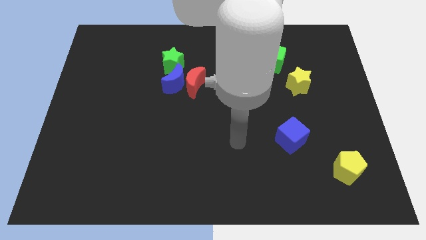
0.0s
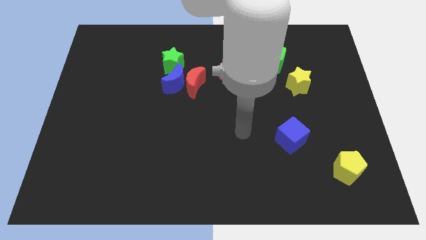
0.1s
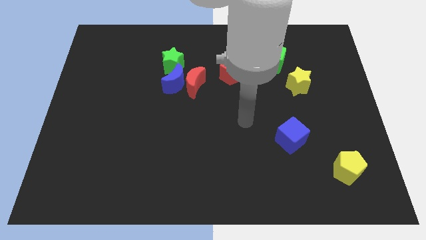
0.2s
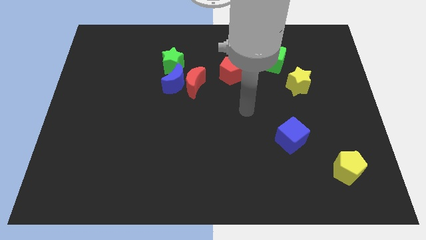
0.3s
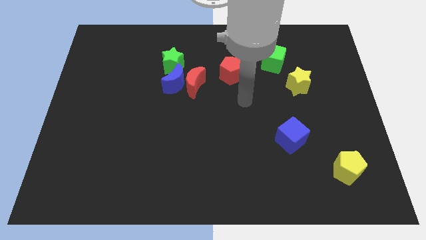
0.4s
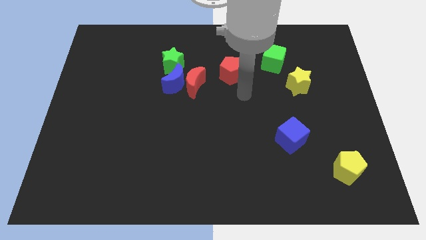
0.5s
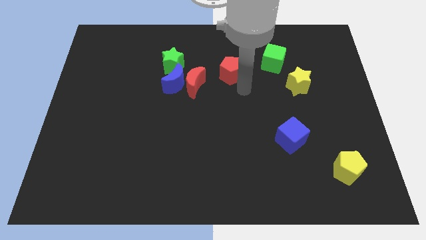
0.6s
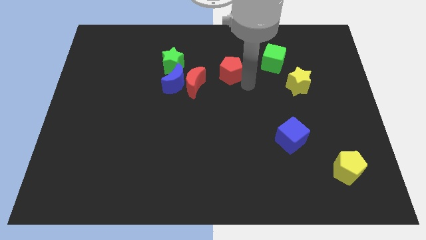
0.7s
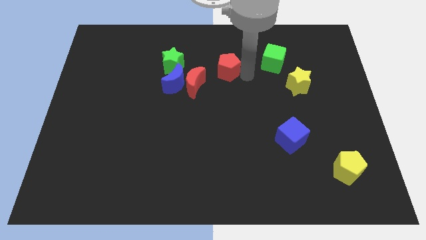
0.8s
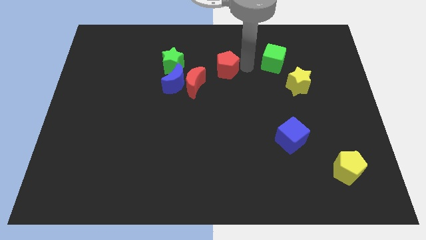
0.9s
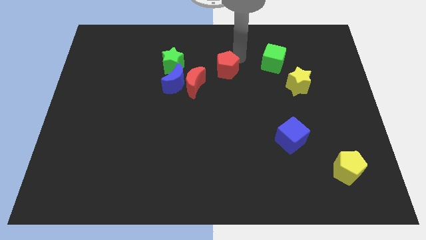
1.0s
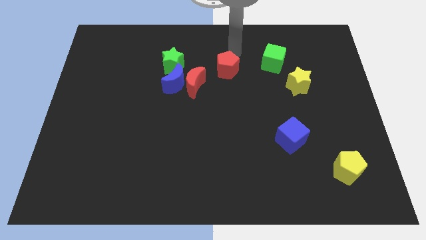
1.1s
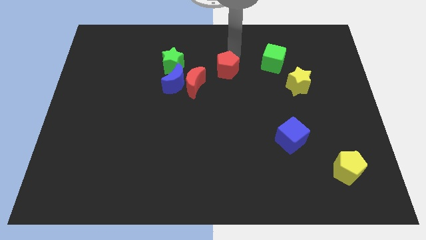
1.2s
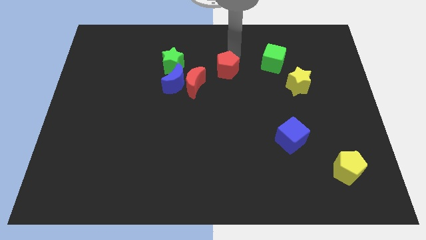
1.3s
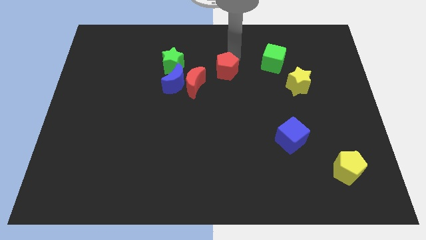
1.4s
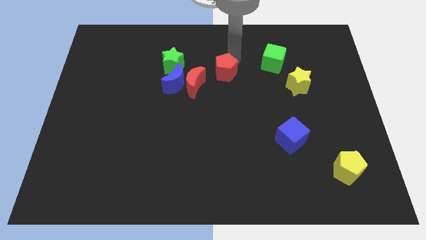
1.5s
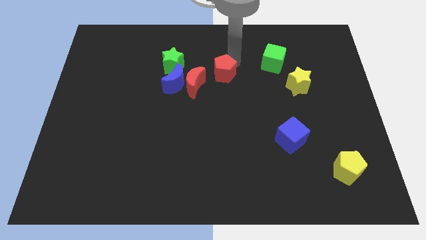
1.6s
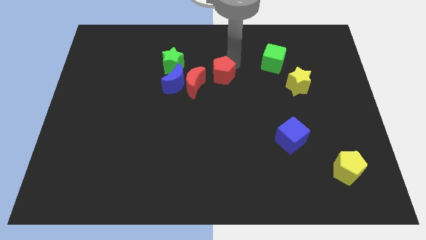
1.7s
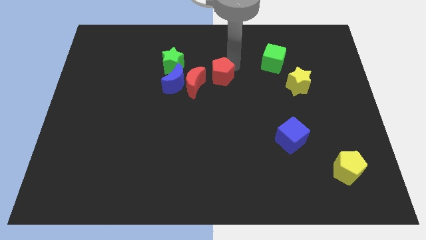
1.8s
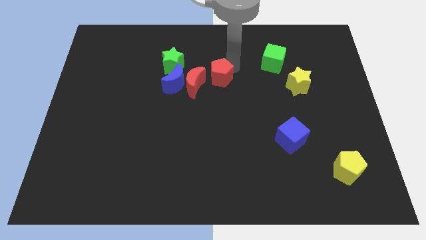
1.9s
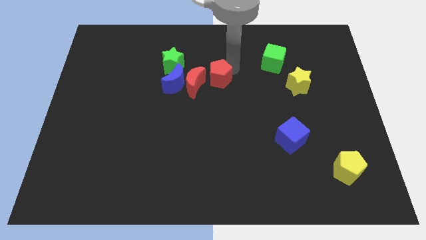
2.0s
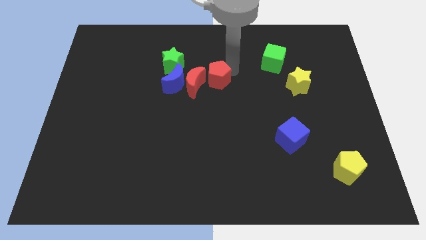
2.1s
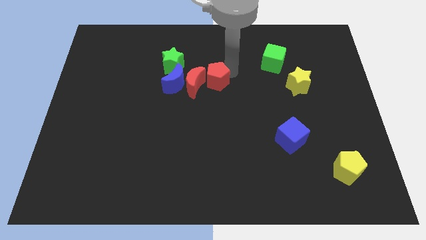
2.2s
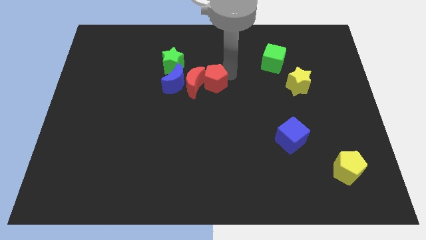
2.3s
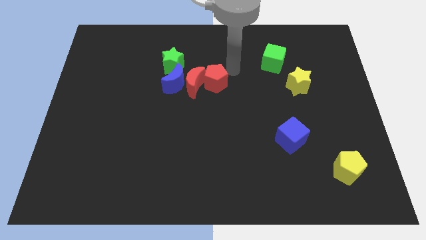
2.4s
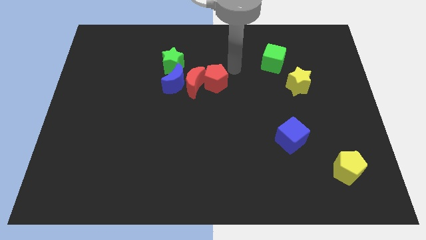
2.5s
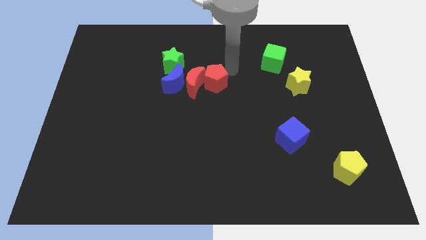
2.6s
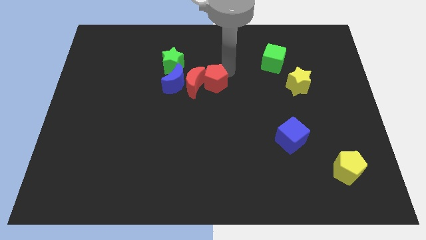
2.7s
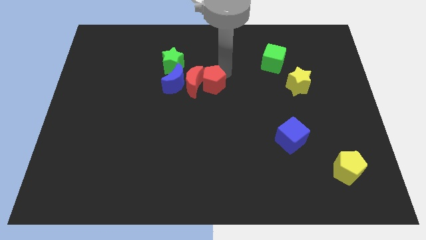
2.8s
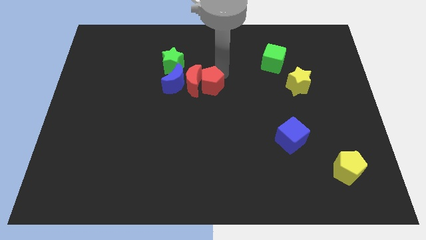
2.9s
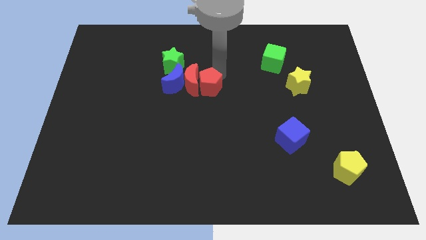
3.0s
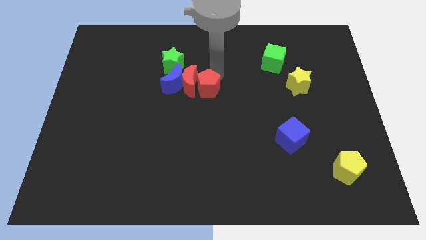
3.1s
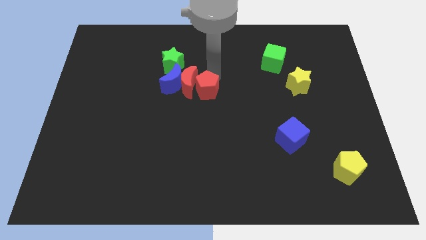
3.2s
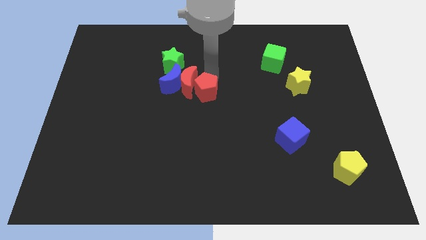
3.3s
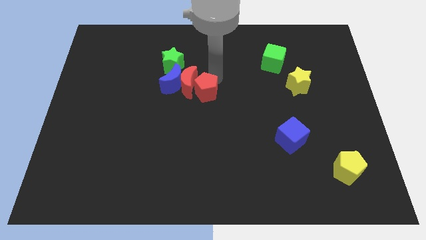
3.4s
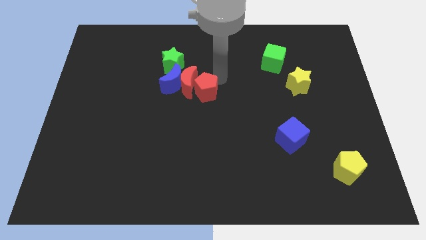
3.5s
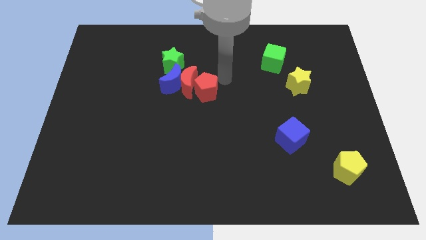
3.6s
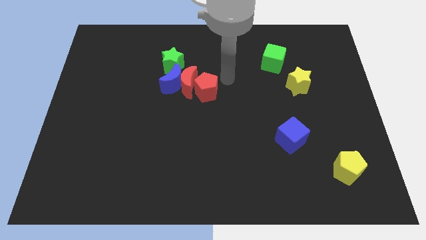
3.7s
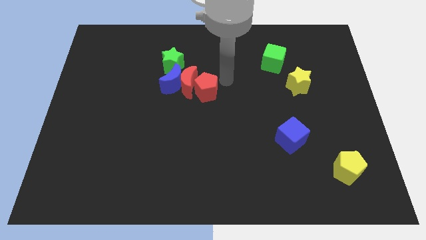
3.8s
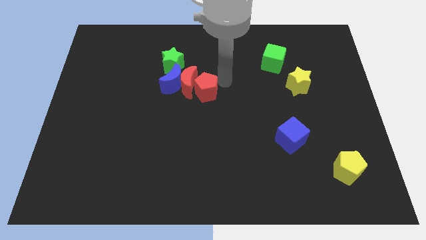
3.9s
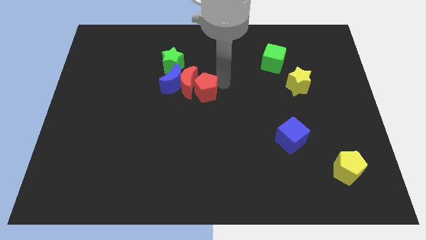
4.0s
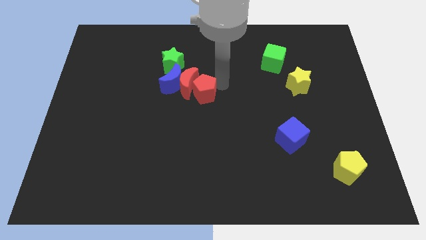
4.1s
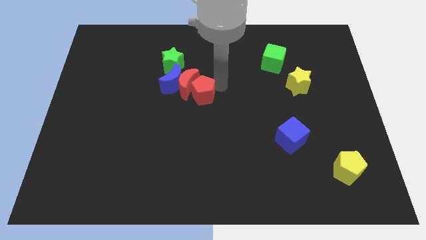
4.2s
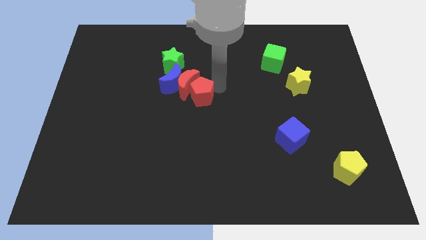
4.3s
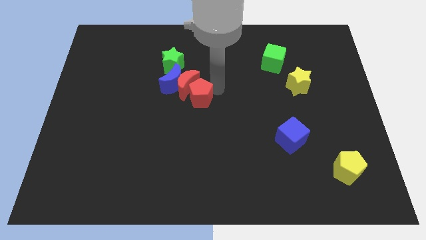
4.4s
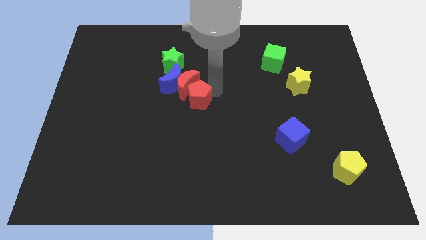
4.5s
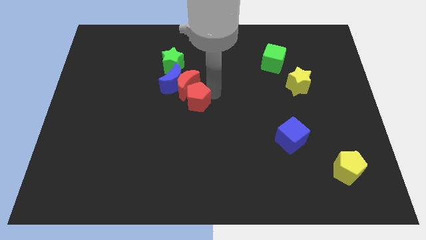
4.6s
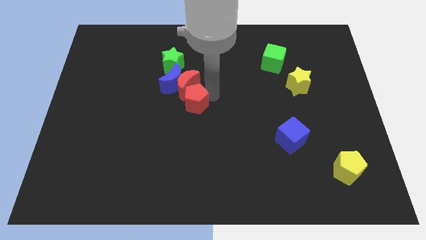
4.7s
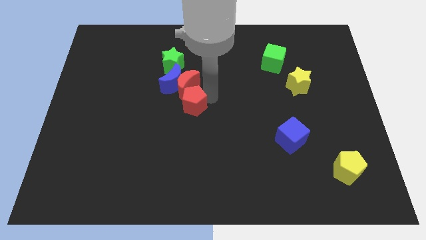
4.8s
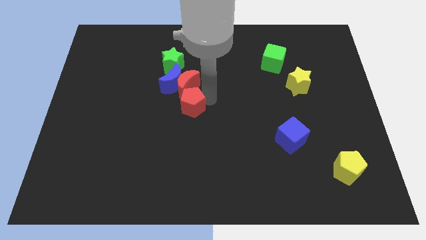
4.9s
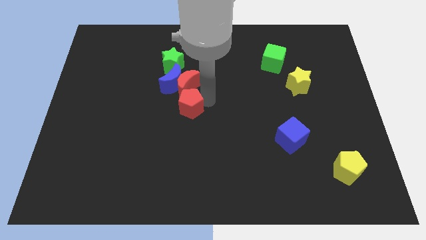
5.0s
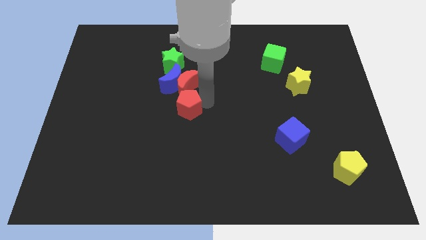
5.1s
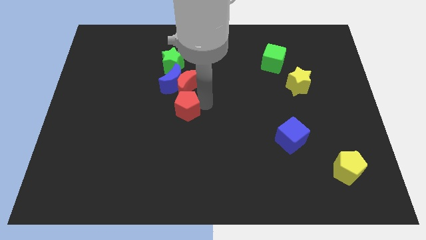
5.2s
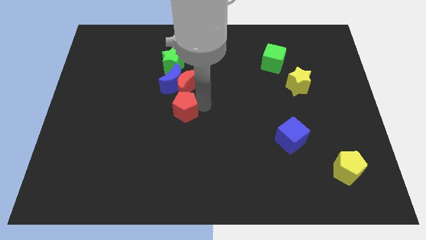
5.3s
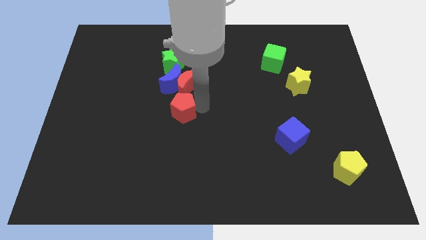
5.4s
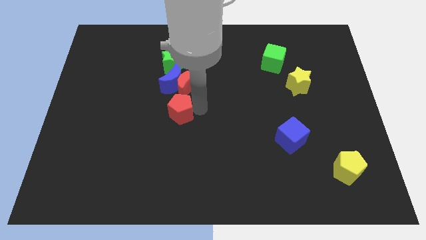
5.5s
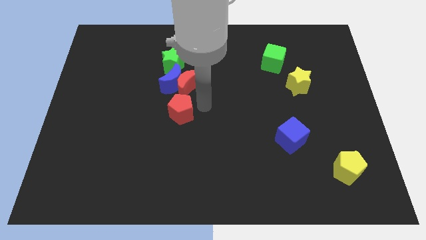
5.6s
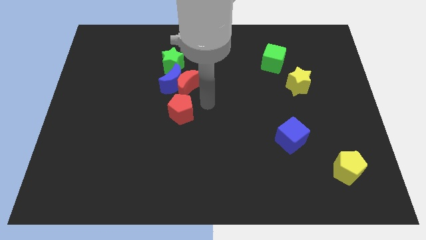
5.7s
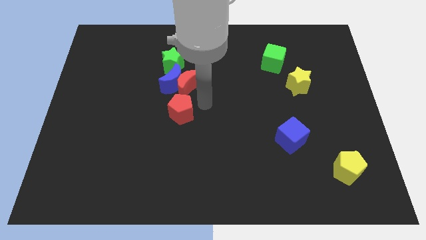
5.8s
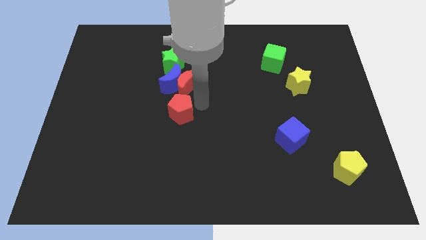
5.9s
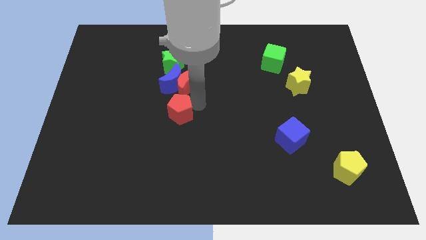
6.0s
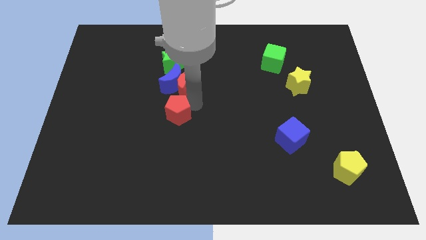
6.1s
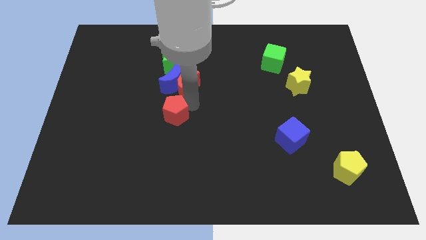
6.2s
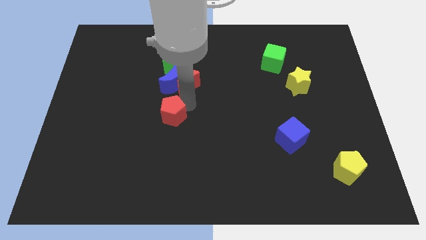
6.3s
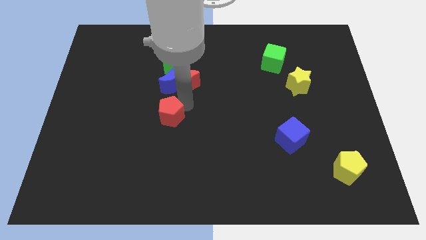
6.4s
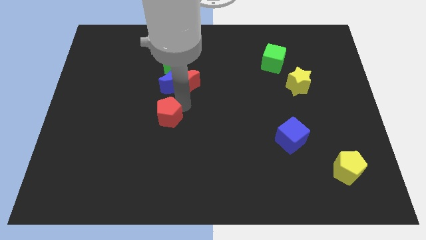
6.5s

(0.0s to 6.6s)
push the red pentagon diagonally downwards and left

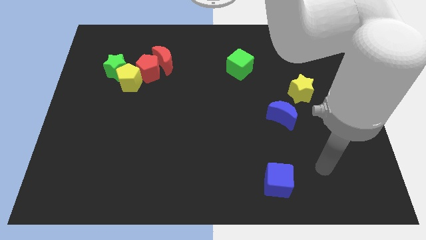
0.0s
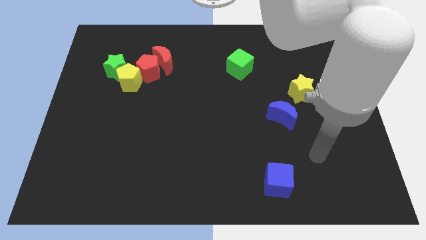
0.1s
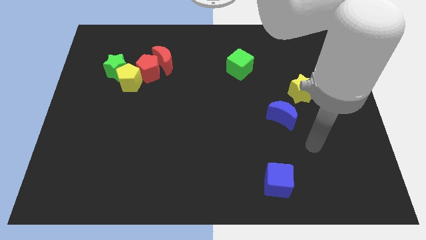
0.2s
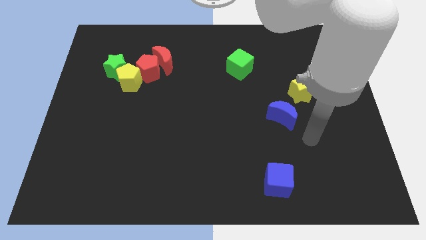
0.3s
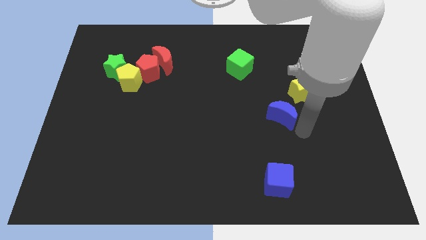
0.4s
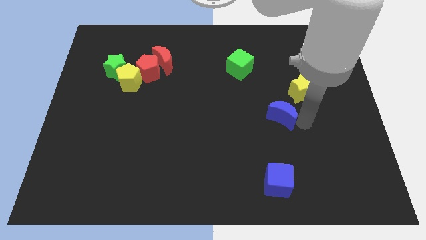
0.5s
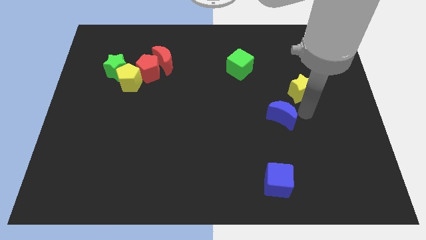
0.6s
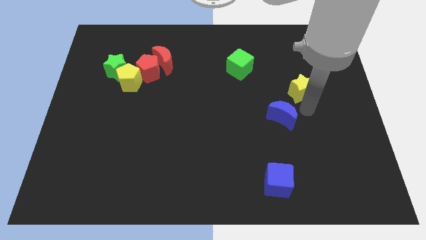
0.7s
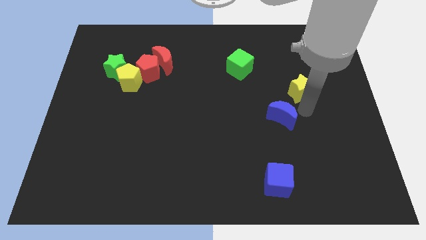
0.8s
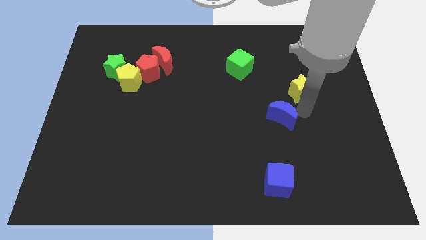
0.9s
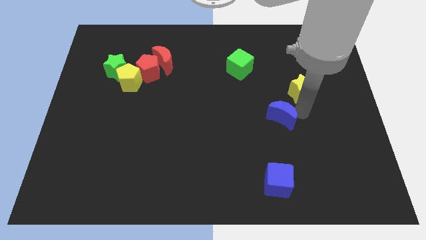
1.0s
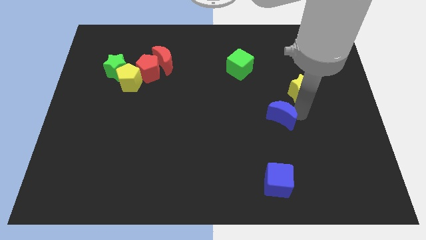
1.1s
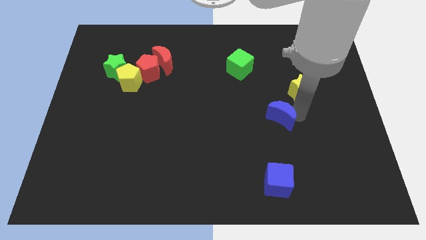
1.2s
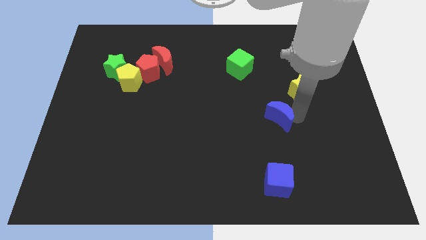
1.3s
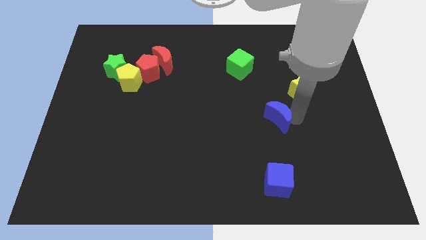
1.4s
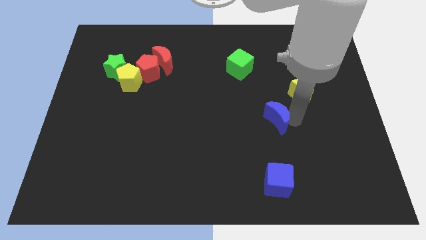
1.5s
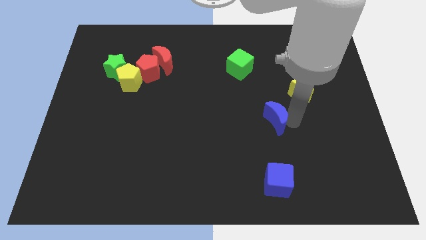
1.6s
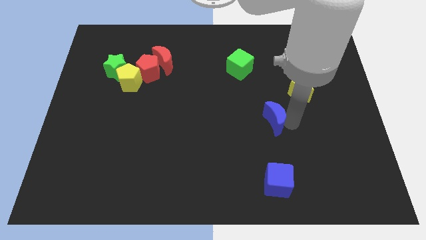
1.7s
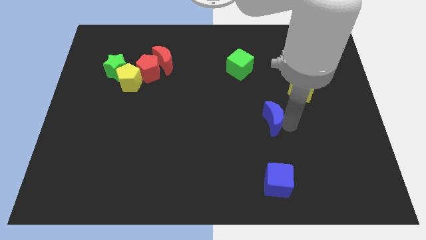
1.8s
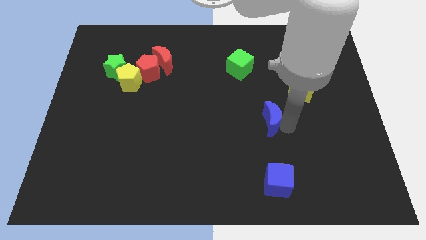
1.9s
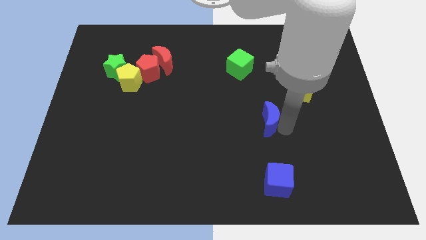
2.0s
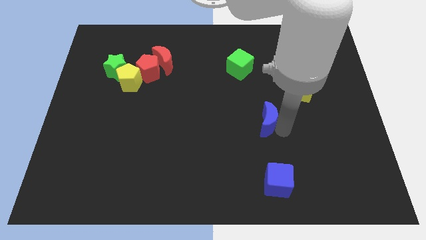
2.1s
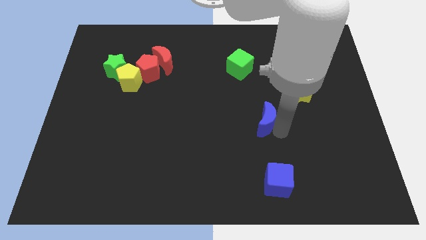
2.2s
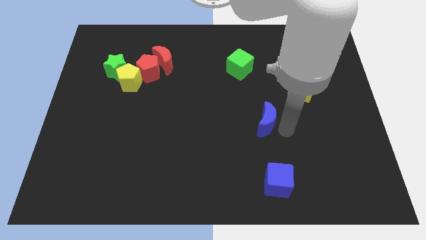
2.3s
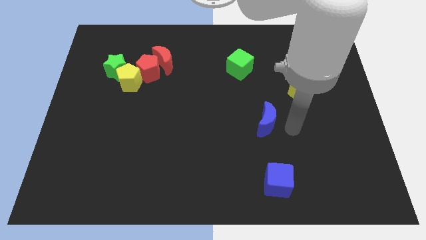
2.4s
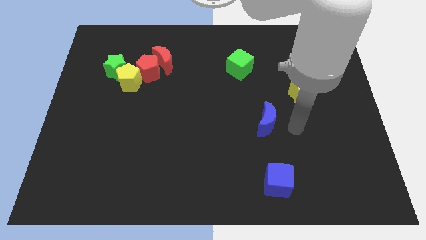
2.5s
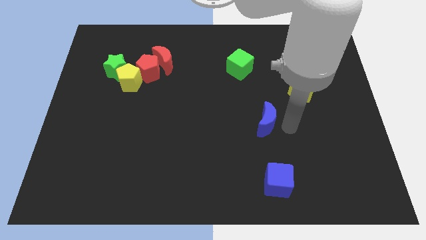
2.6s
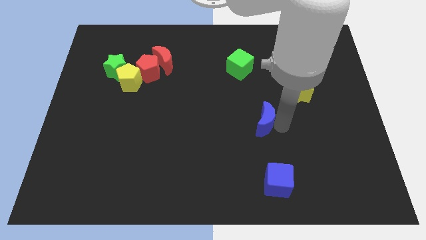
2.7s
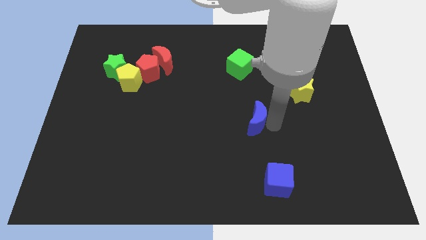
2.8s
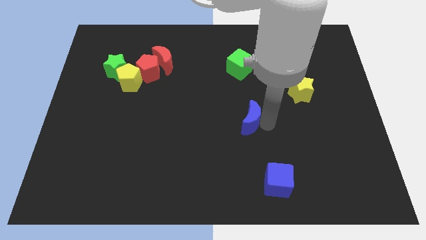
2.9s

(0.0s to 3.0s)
slightly move the blue moon to the left
